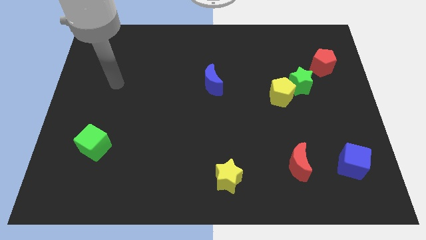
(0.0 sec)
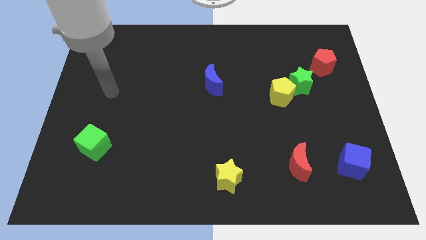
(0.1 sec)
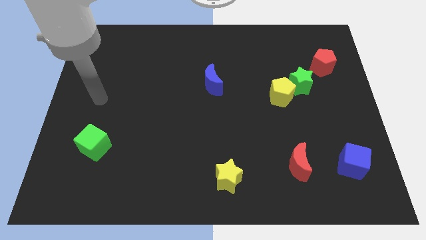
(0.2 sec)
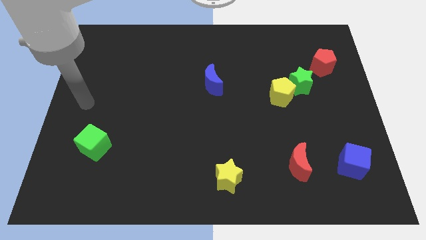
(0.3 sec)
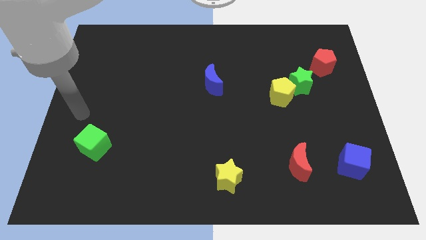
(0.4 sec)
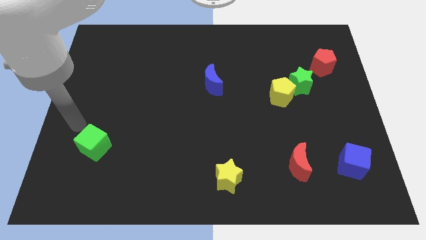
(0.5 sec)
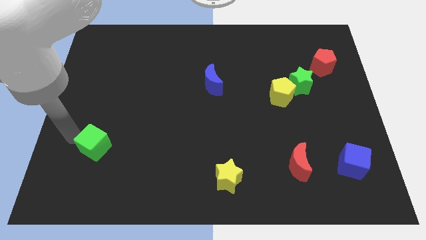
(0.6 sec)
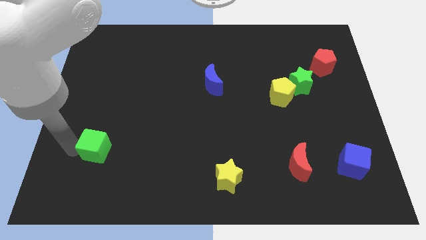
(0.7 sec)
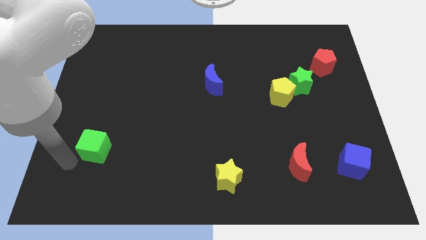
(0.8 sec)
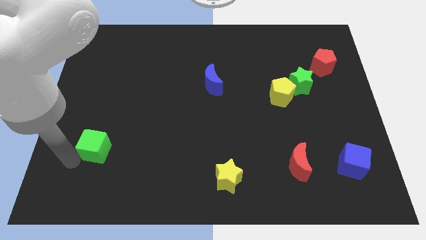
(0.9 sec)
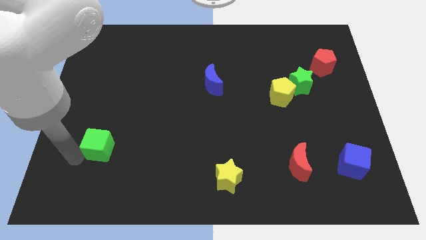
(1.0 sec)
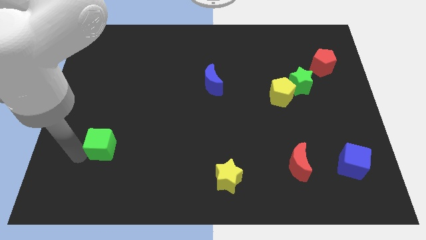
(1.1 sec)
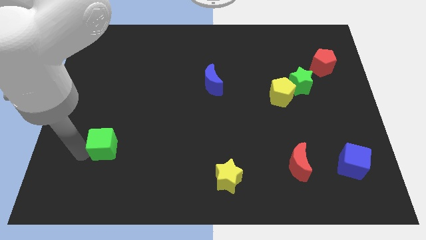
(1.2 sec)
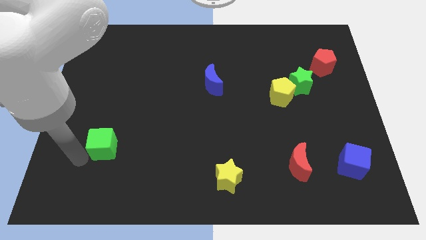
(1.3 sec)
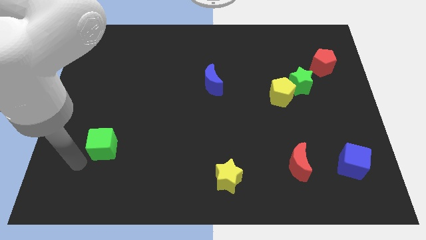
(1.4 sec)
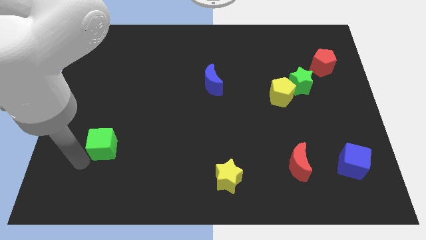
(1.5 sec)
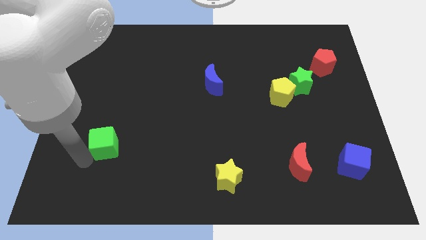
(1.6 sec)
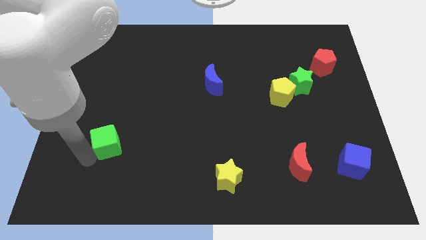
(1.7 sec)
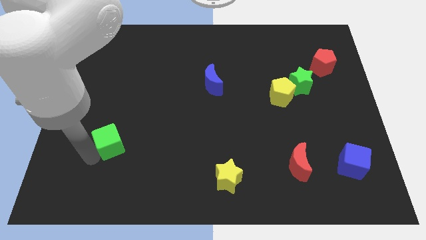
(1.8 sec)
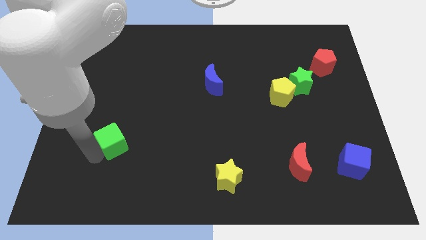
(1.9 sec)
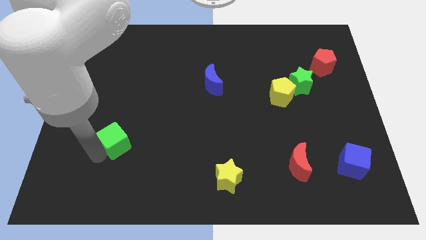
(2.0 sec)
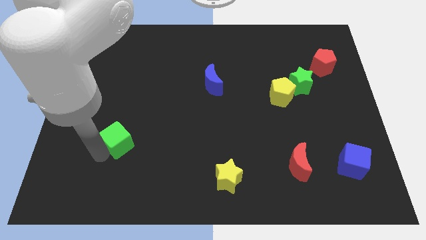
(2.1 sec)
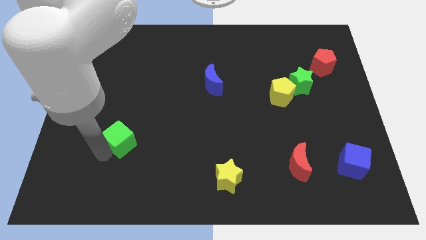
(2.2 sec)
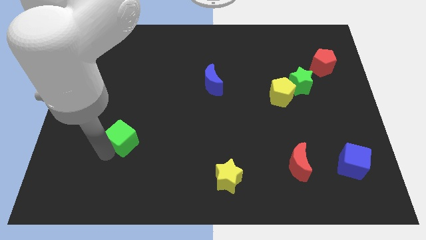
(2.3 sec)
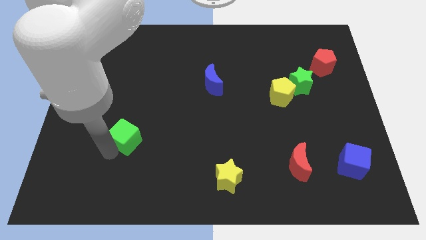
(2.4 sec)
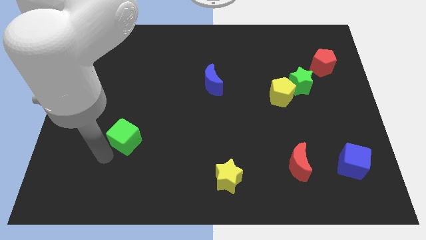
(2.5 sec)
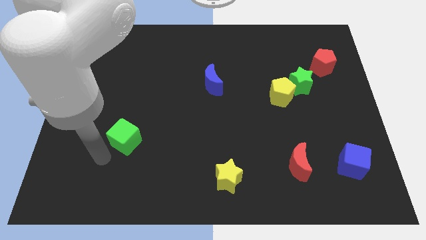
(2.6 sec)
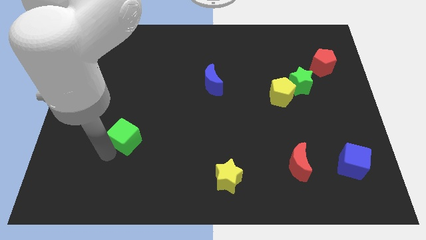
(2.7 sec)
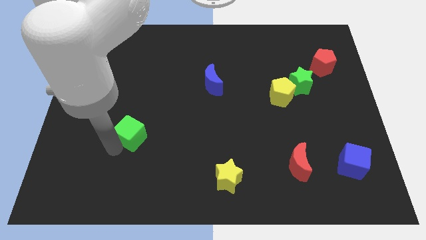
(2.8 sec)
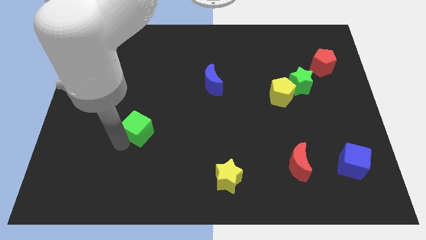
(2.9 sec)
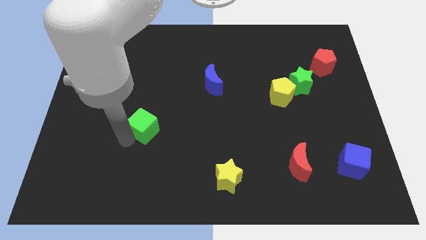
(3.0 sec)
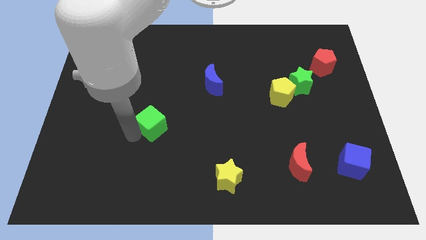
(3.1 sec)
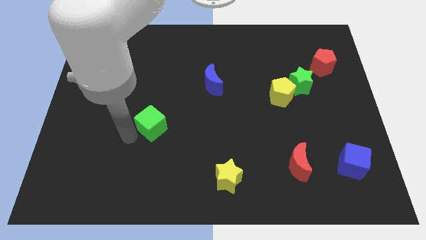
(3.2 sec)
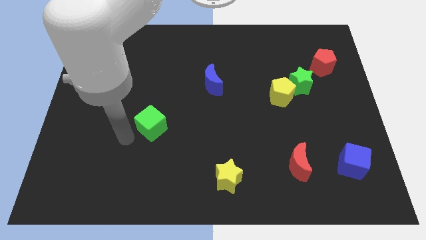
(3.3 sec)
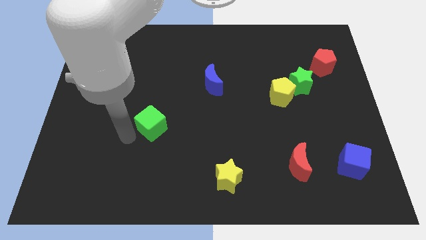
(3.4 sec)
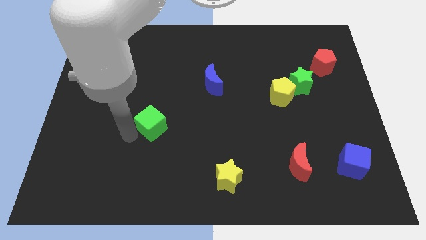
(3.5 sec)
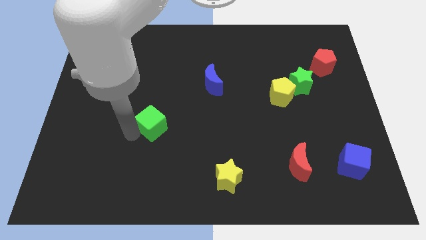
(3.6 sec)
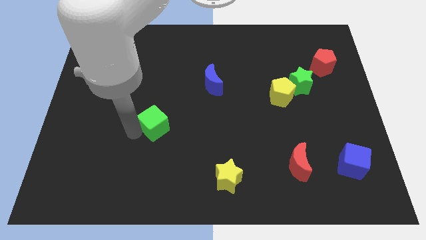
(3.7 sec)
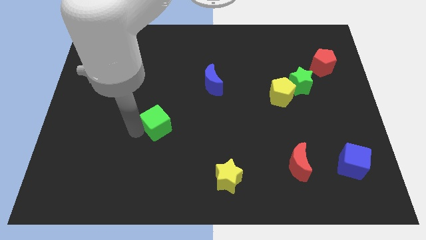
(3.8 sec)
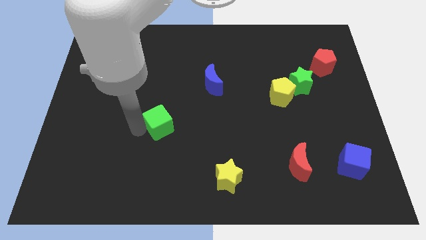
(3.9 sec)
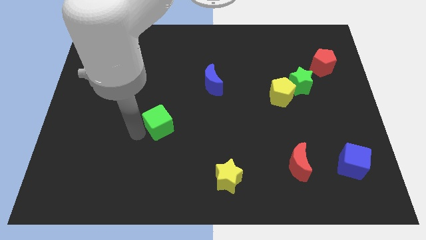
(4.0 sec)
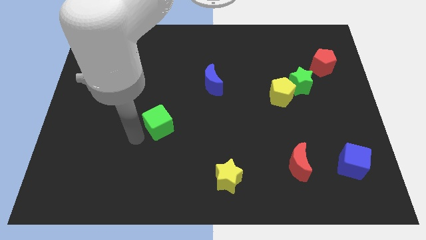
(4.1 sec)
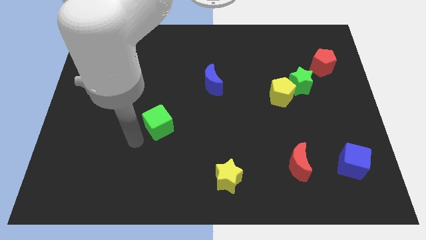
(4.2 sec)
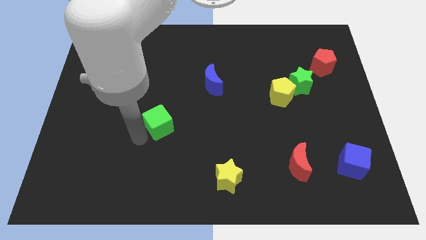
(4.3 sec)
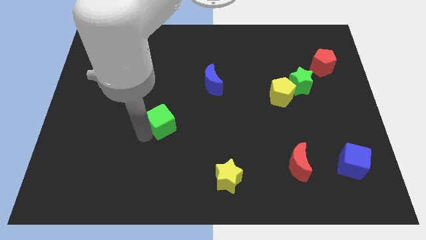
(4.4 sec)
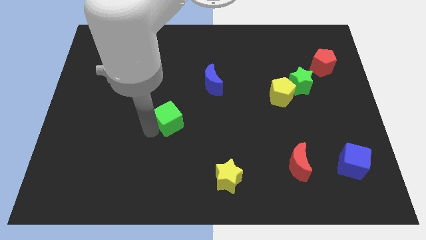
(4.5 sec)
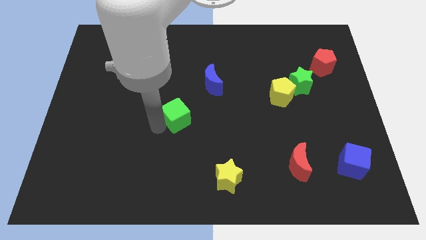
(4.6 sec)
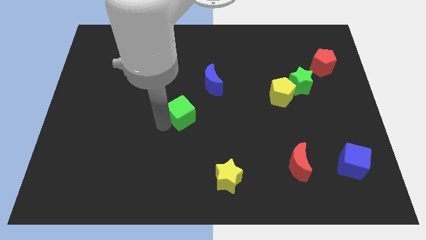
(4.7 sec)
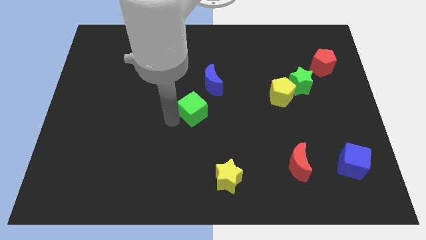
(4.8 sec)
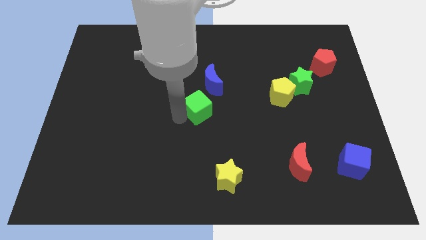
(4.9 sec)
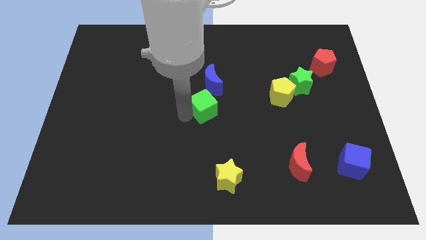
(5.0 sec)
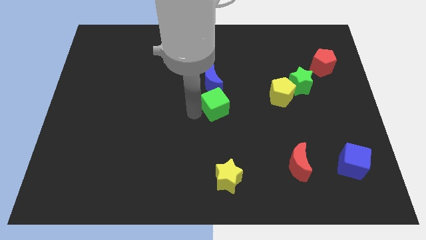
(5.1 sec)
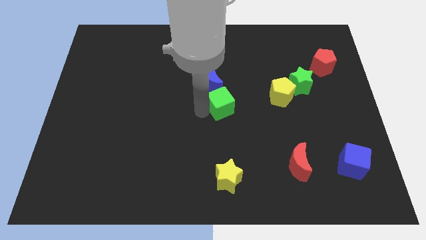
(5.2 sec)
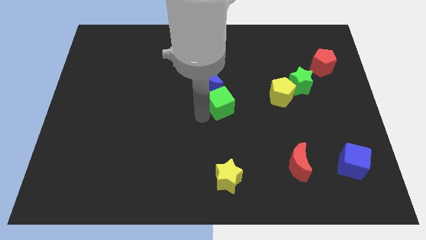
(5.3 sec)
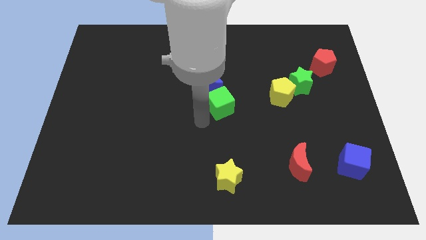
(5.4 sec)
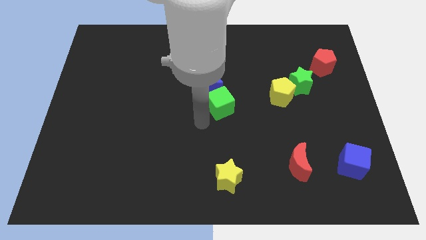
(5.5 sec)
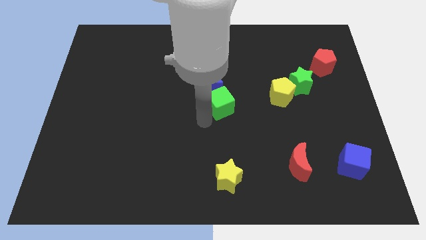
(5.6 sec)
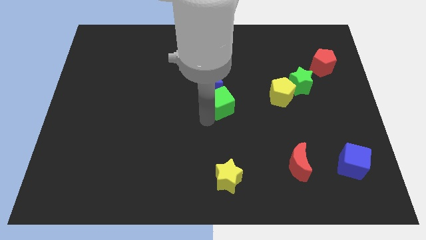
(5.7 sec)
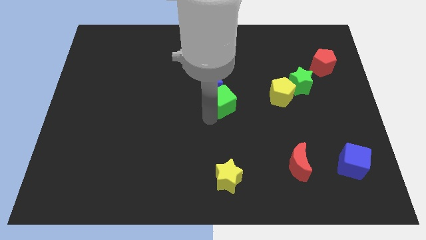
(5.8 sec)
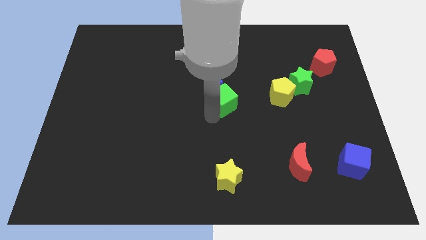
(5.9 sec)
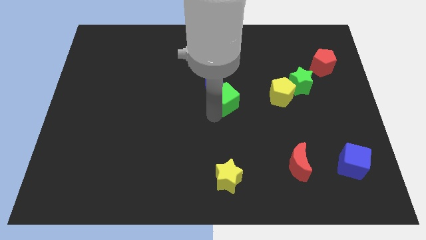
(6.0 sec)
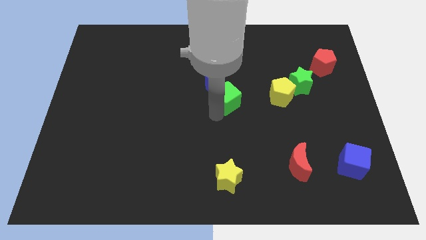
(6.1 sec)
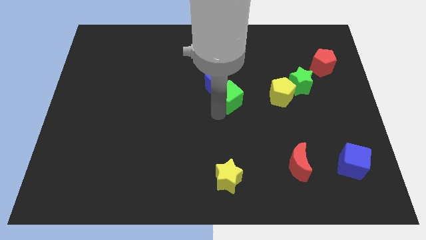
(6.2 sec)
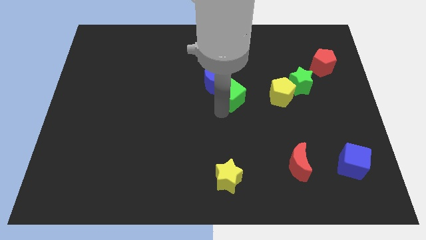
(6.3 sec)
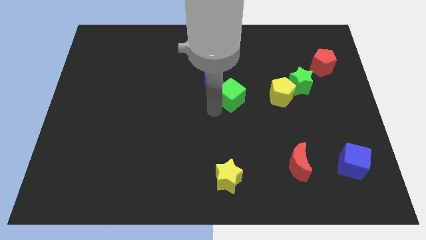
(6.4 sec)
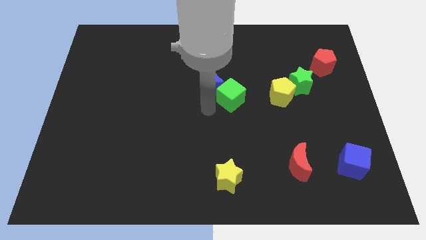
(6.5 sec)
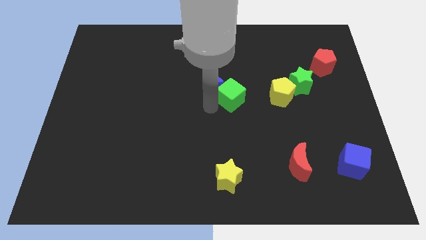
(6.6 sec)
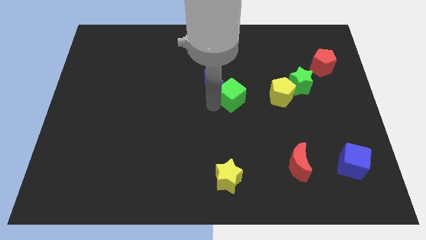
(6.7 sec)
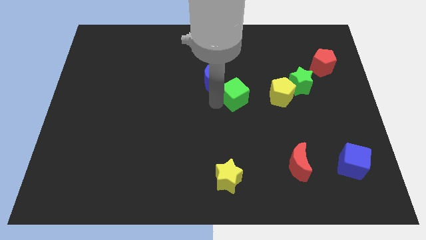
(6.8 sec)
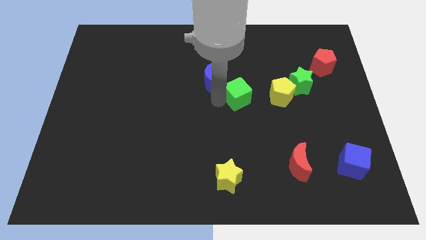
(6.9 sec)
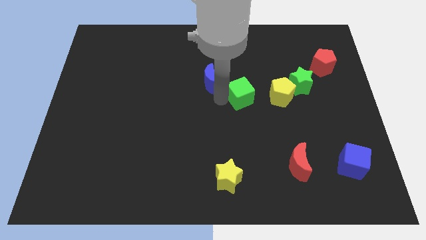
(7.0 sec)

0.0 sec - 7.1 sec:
move the green cube to the left of the green star
